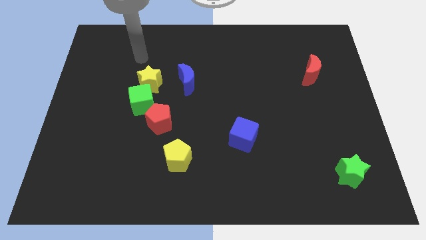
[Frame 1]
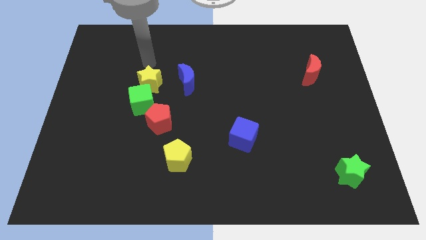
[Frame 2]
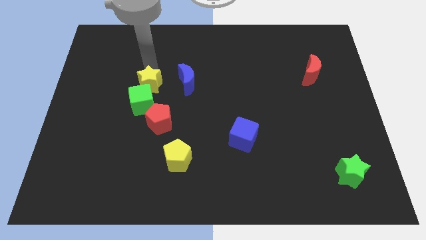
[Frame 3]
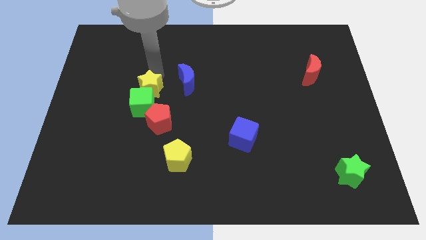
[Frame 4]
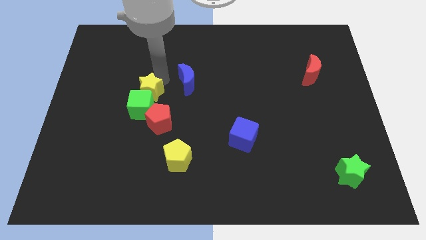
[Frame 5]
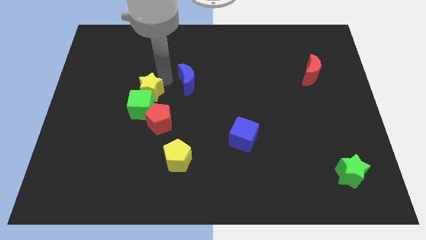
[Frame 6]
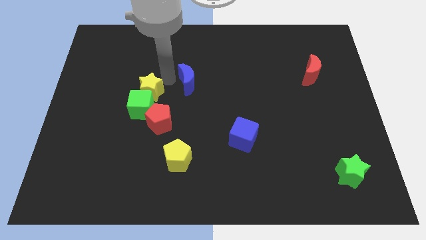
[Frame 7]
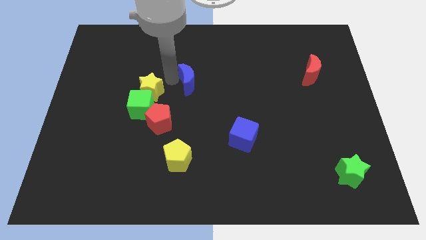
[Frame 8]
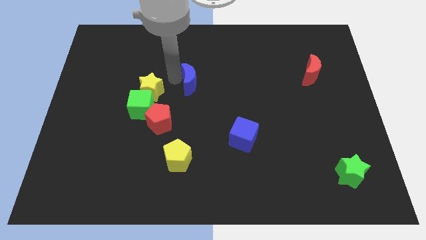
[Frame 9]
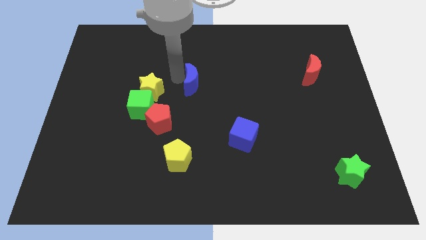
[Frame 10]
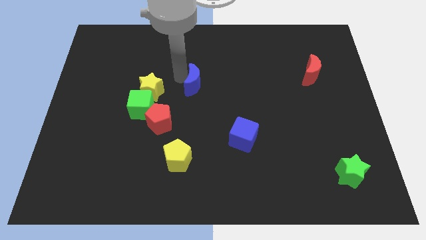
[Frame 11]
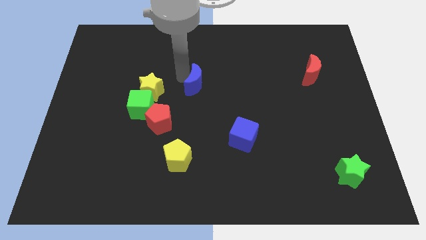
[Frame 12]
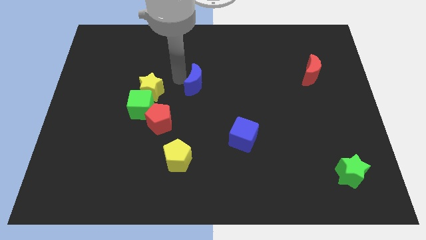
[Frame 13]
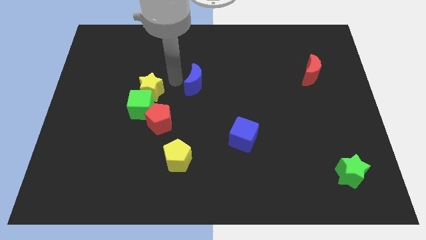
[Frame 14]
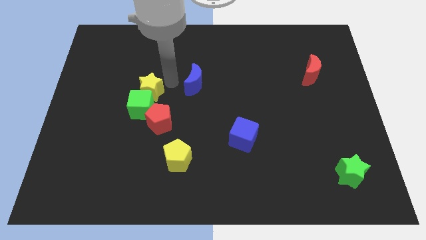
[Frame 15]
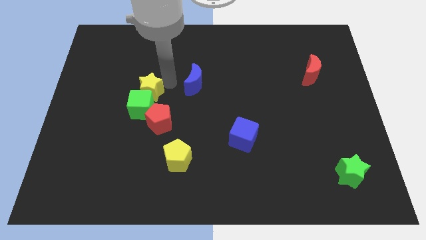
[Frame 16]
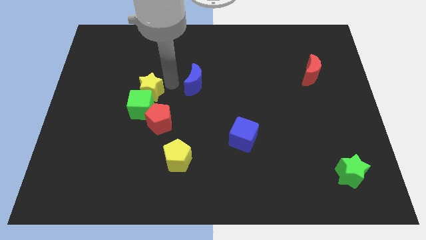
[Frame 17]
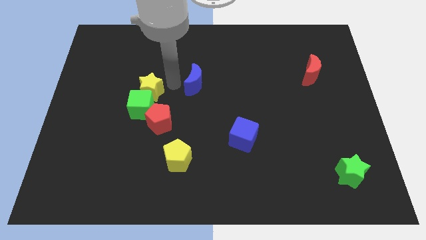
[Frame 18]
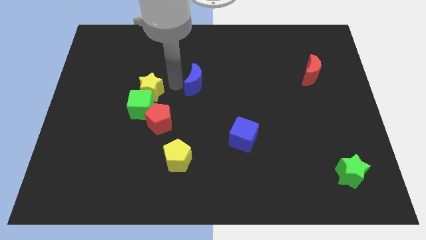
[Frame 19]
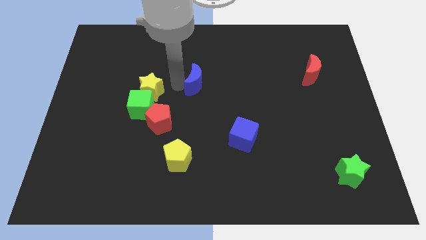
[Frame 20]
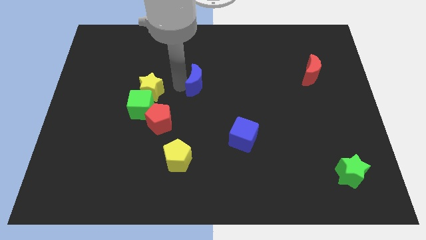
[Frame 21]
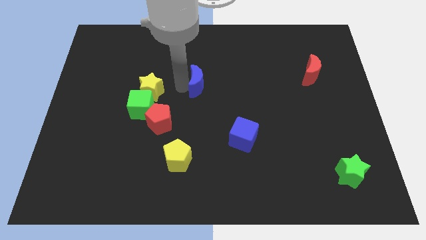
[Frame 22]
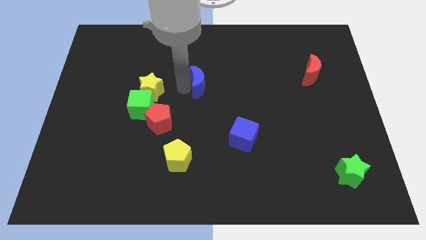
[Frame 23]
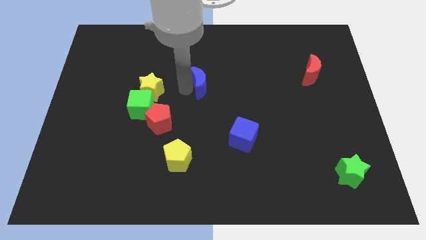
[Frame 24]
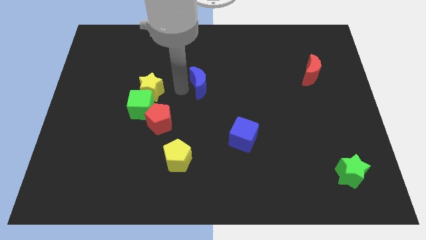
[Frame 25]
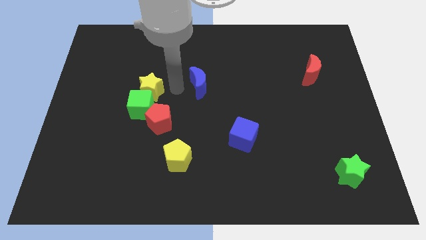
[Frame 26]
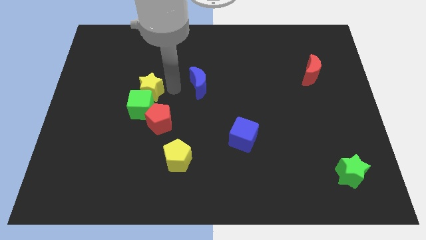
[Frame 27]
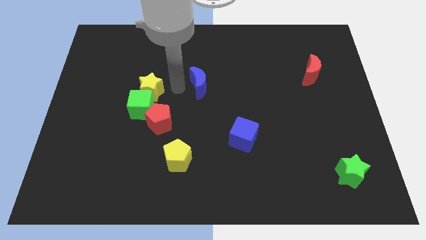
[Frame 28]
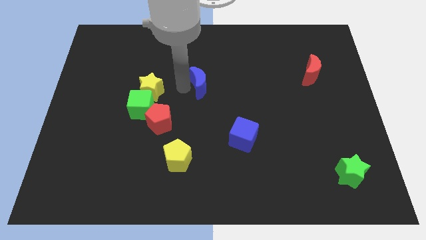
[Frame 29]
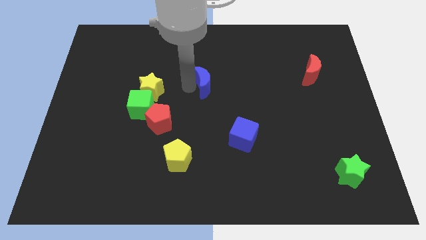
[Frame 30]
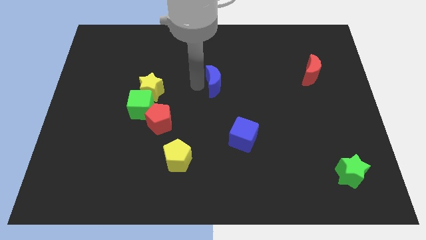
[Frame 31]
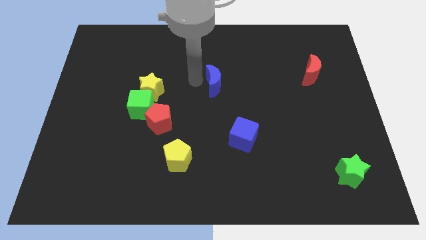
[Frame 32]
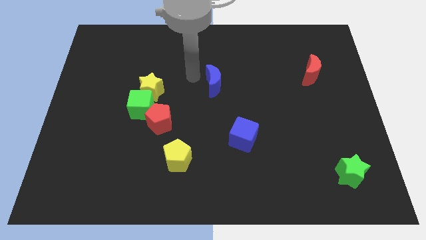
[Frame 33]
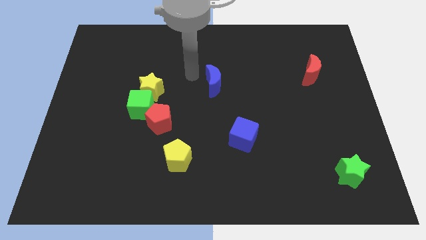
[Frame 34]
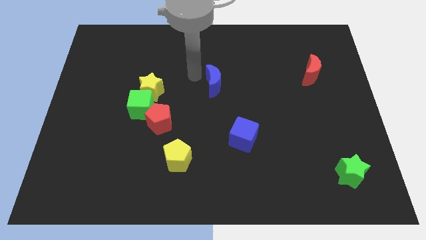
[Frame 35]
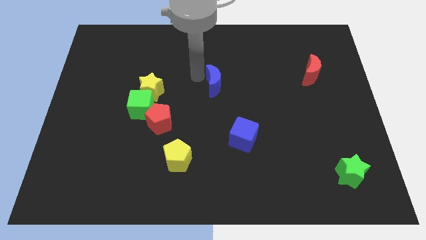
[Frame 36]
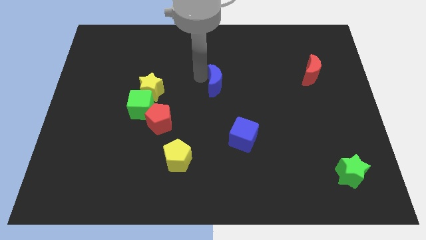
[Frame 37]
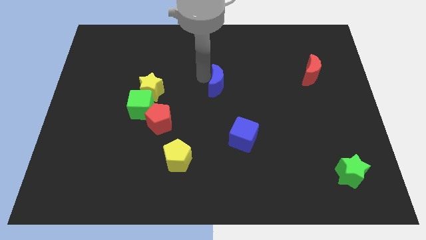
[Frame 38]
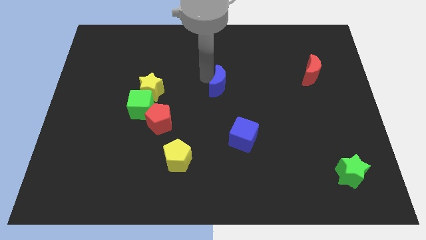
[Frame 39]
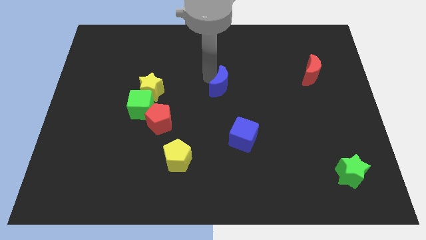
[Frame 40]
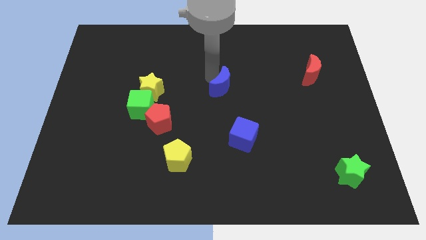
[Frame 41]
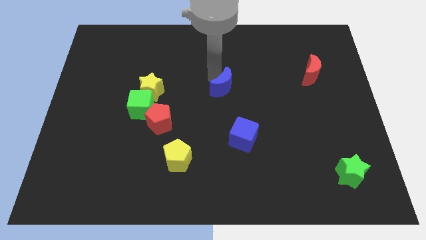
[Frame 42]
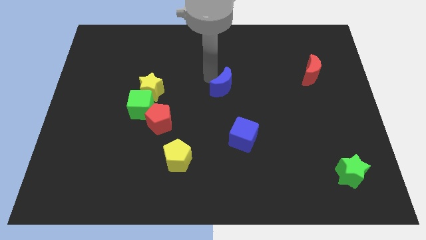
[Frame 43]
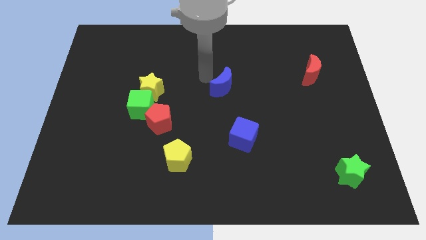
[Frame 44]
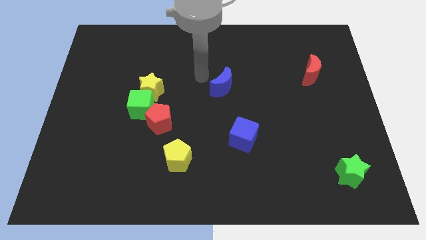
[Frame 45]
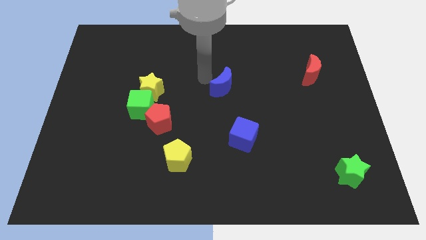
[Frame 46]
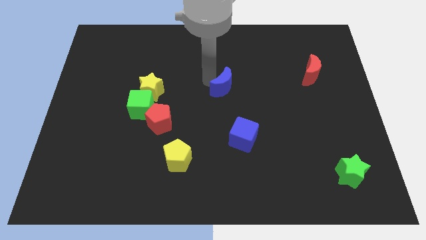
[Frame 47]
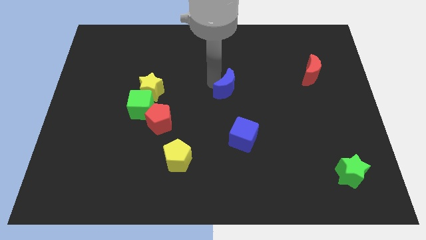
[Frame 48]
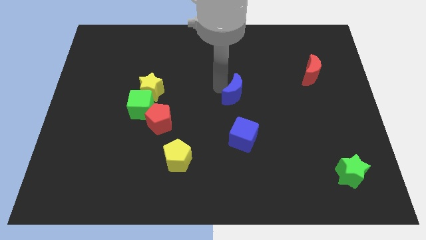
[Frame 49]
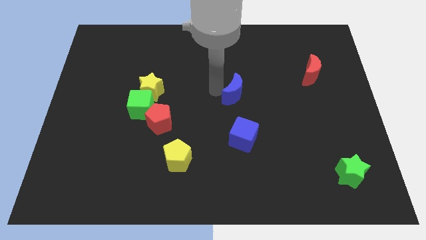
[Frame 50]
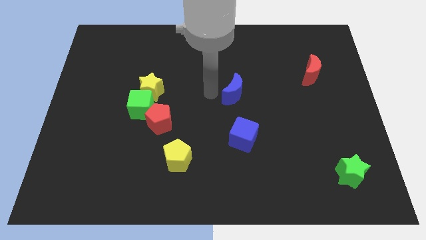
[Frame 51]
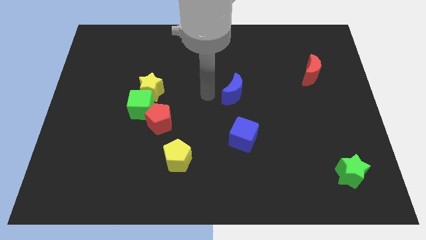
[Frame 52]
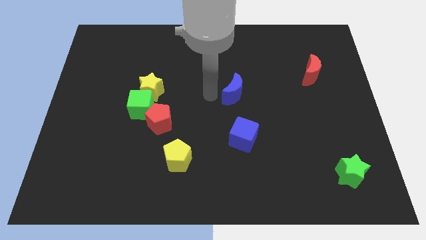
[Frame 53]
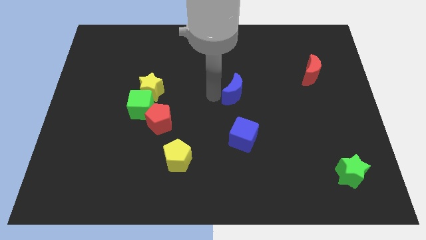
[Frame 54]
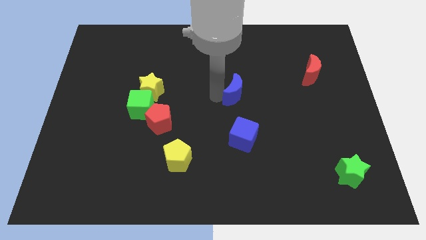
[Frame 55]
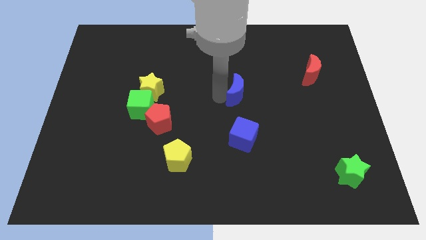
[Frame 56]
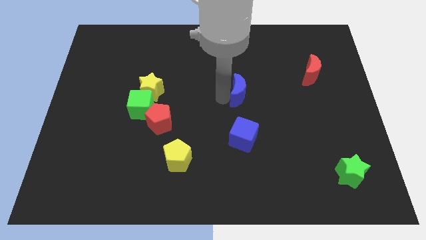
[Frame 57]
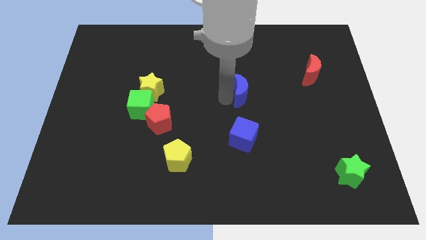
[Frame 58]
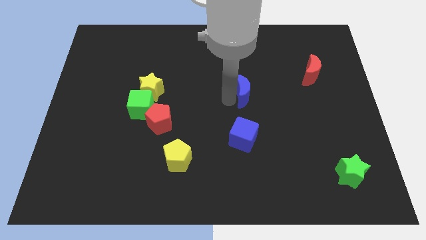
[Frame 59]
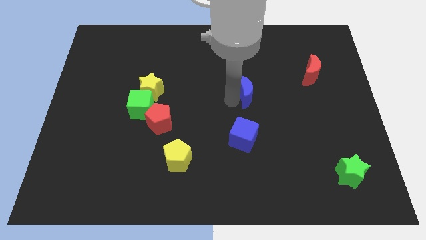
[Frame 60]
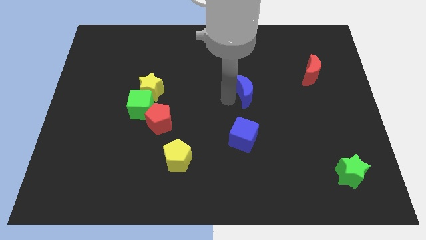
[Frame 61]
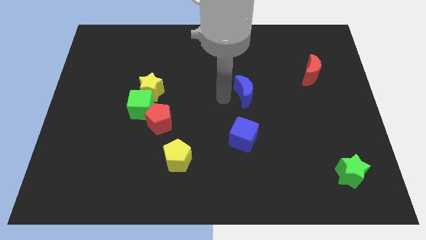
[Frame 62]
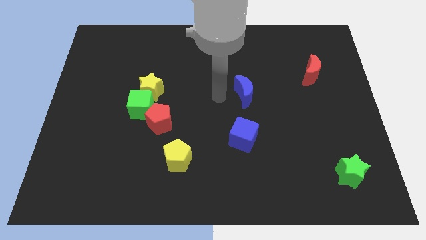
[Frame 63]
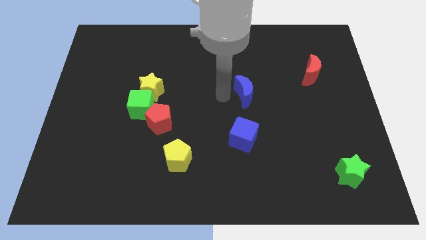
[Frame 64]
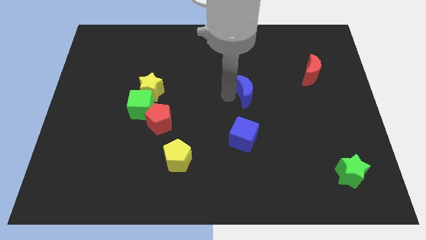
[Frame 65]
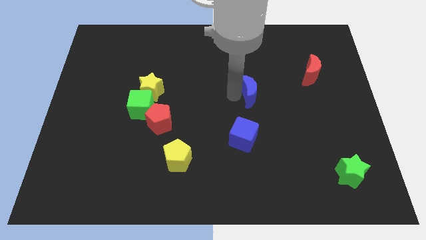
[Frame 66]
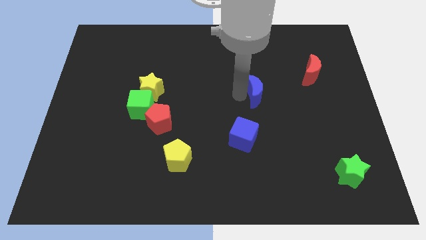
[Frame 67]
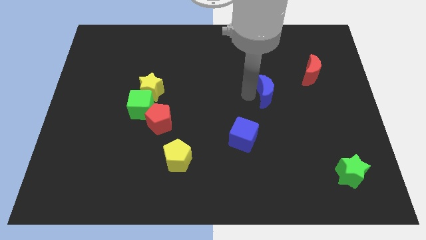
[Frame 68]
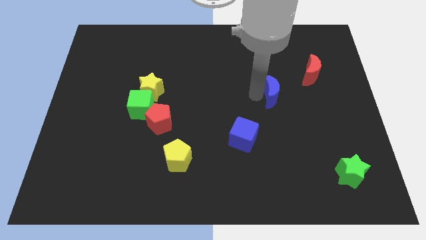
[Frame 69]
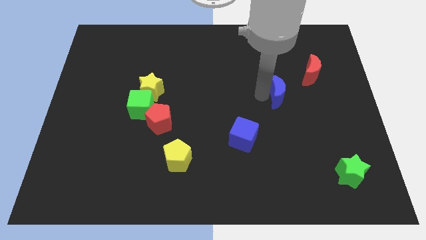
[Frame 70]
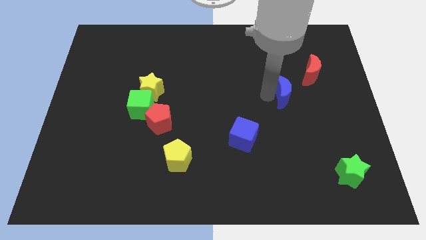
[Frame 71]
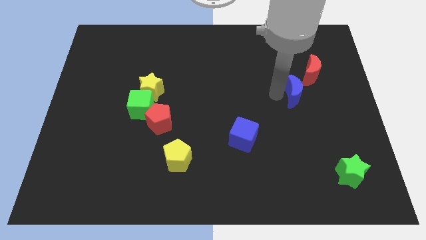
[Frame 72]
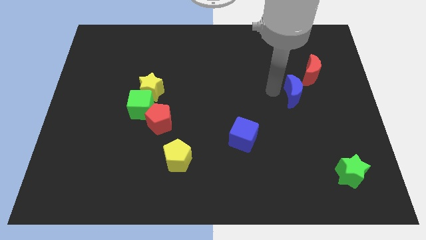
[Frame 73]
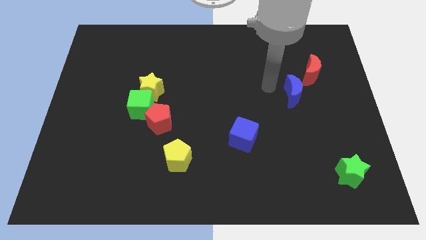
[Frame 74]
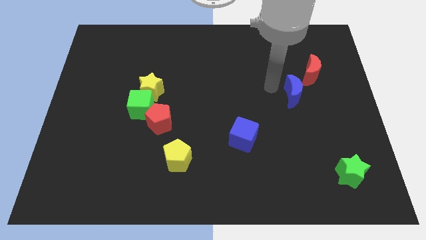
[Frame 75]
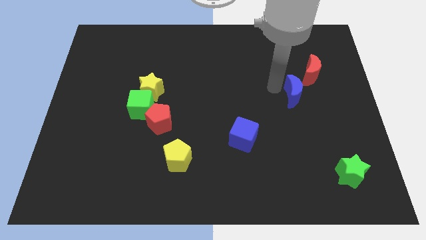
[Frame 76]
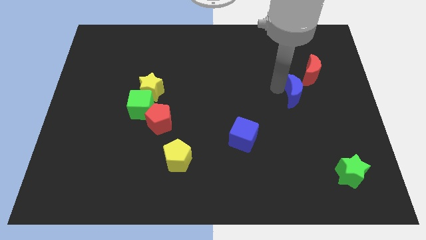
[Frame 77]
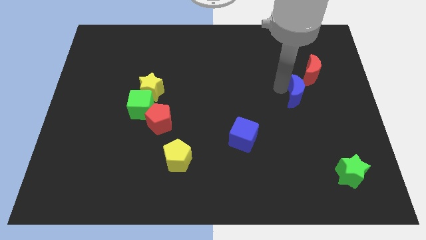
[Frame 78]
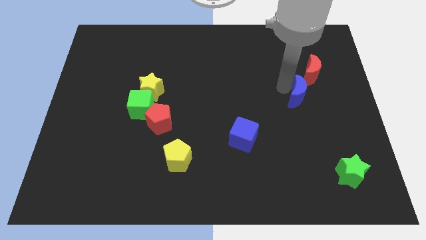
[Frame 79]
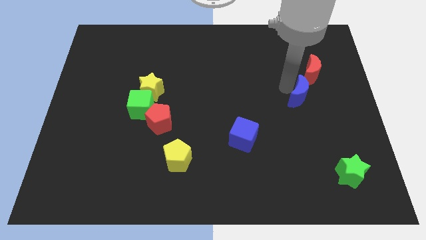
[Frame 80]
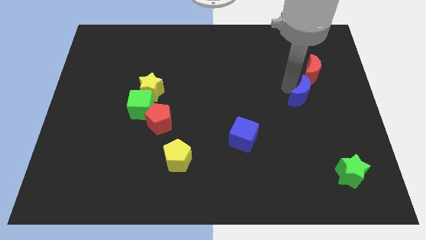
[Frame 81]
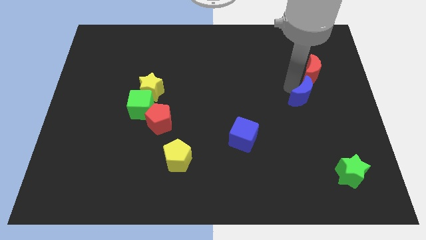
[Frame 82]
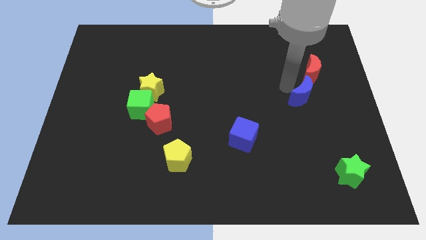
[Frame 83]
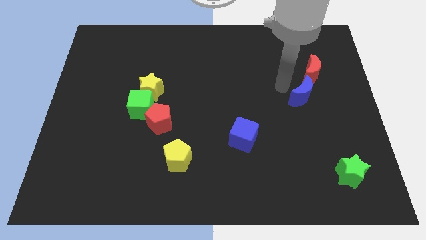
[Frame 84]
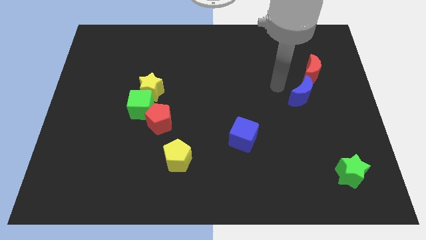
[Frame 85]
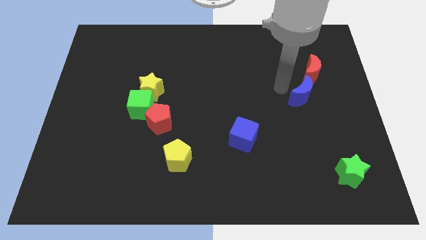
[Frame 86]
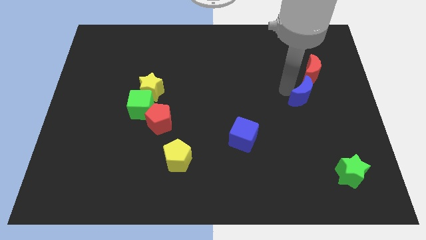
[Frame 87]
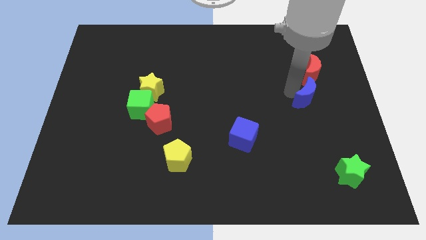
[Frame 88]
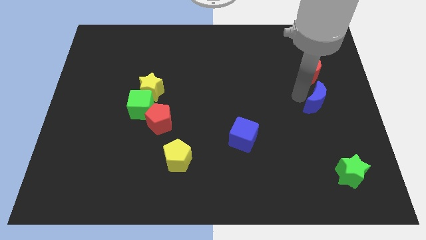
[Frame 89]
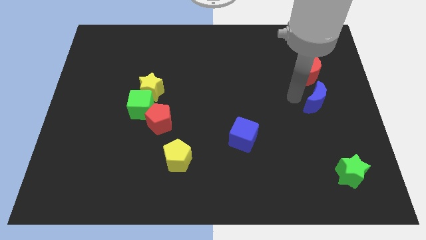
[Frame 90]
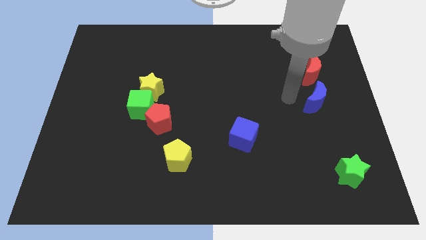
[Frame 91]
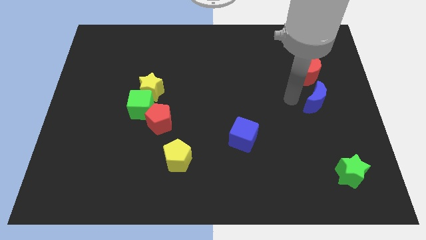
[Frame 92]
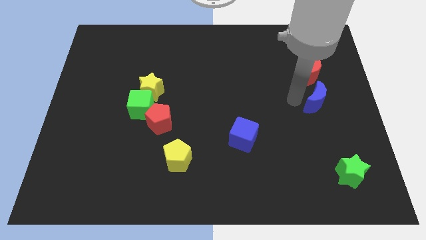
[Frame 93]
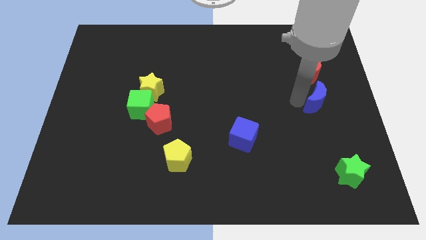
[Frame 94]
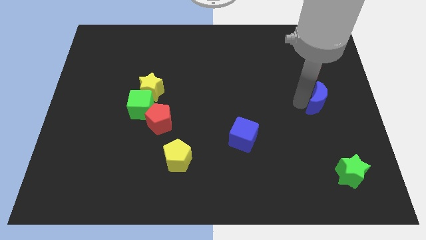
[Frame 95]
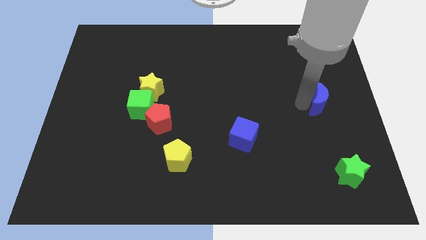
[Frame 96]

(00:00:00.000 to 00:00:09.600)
move the blue moon to the center right
